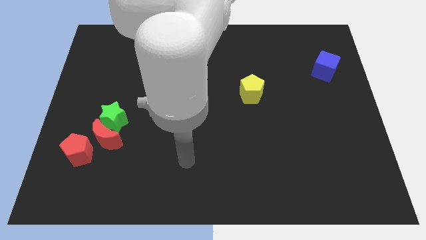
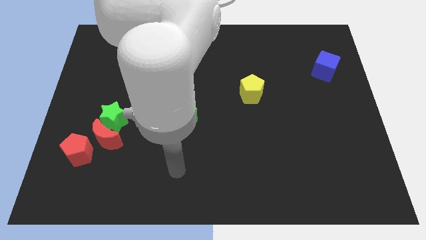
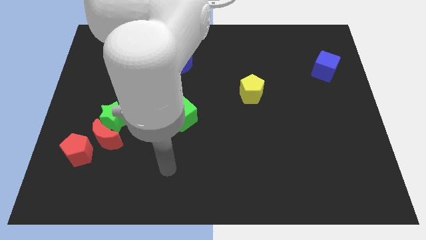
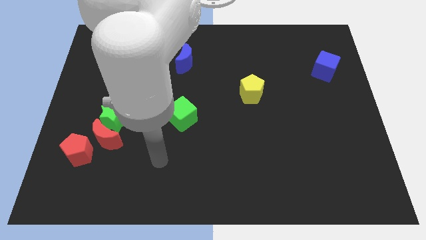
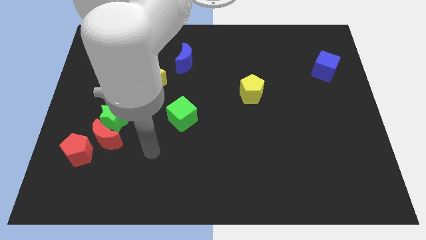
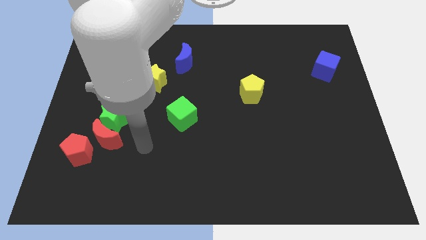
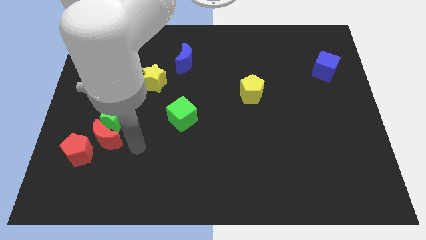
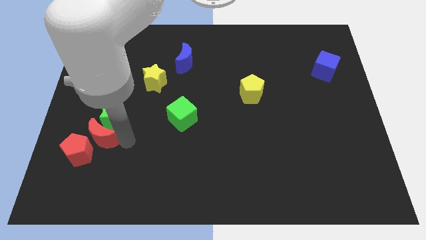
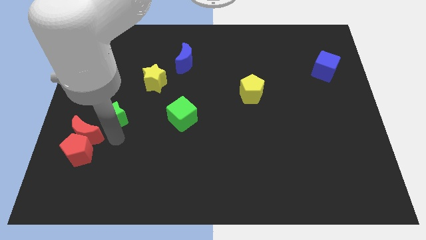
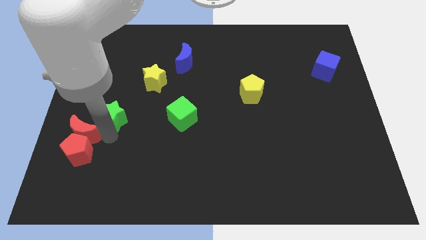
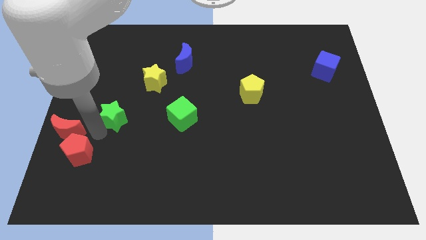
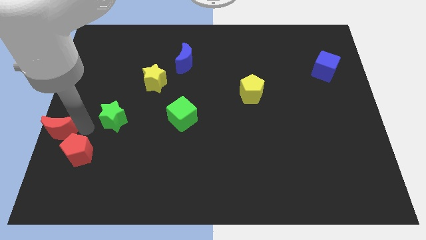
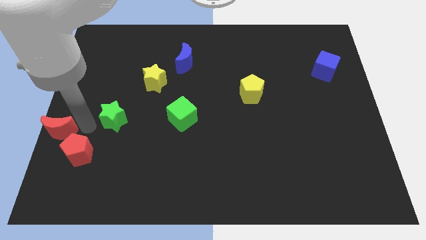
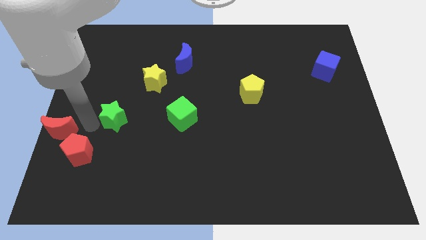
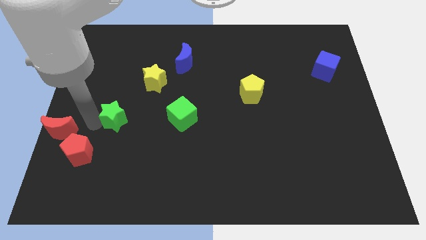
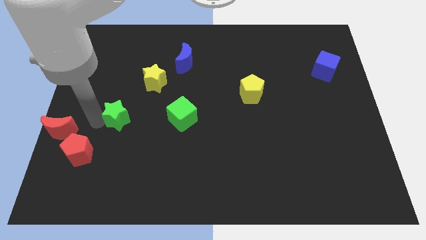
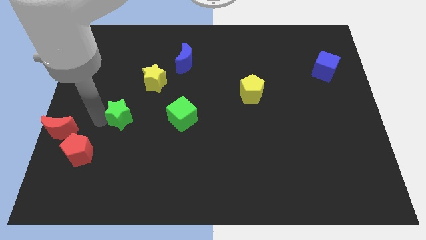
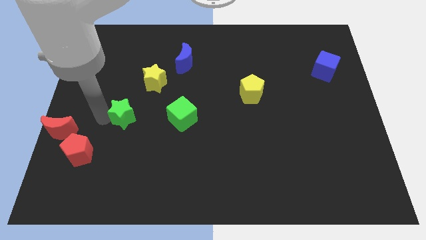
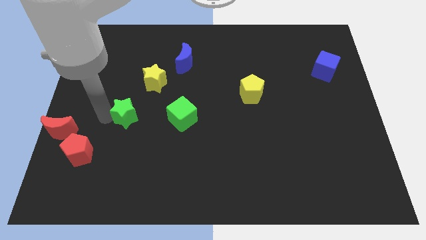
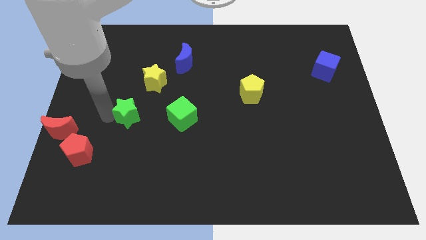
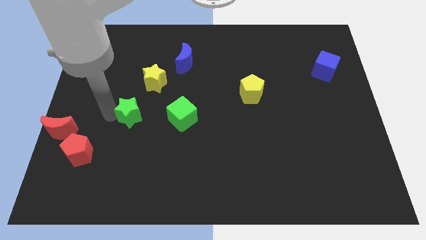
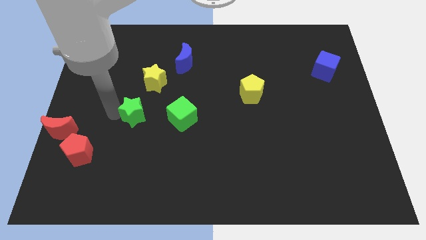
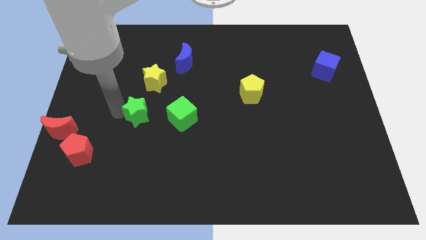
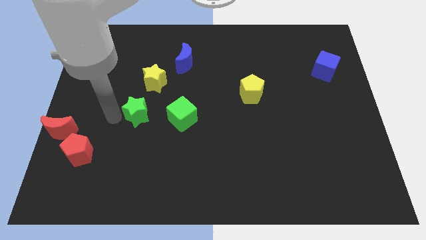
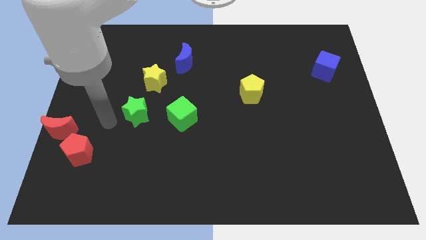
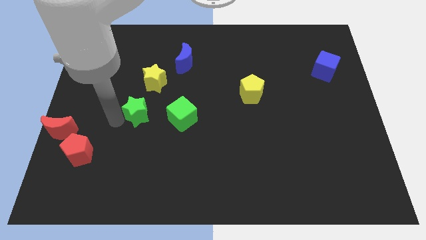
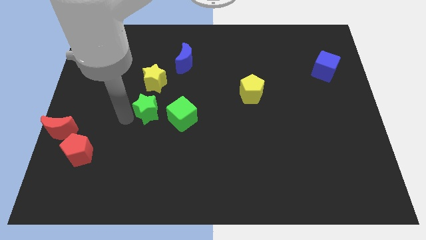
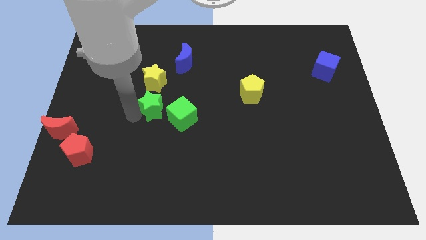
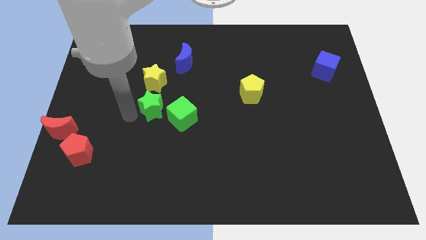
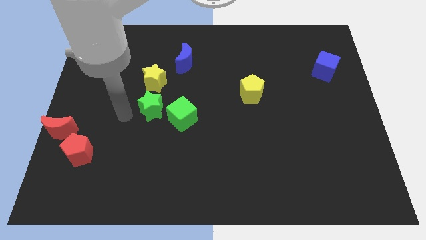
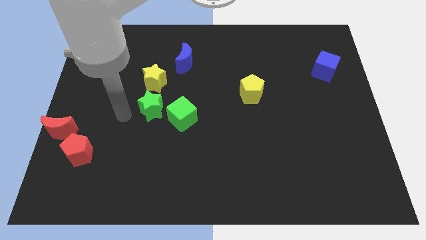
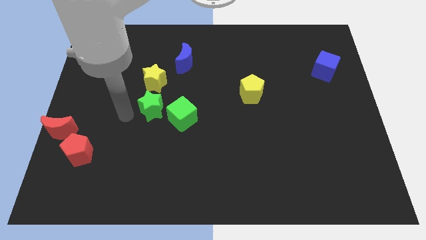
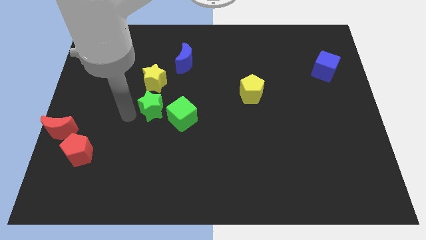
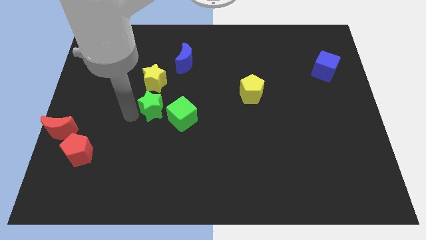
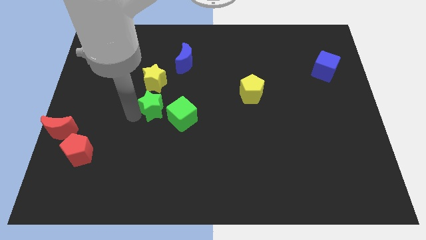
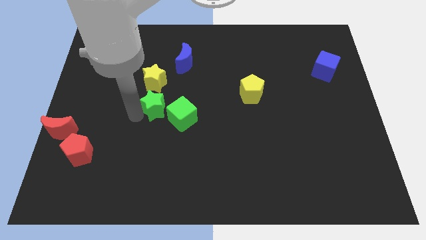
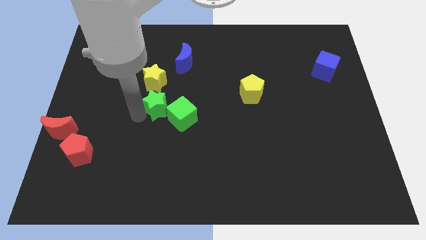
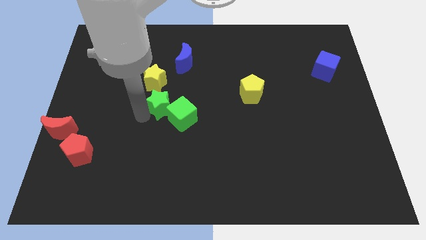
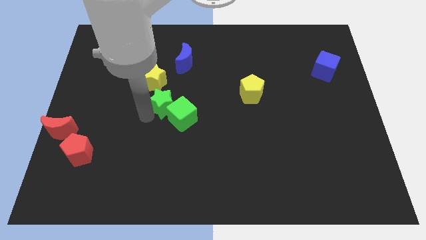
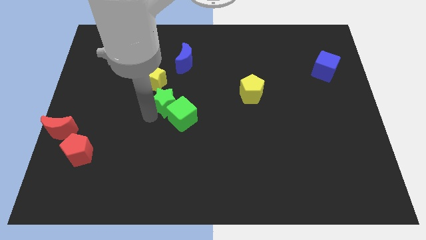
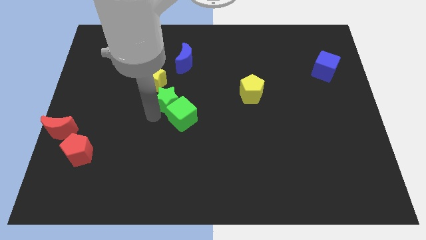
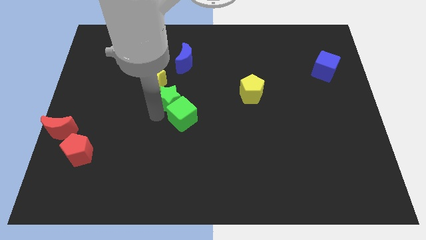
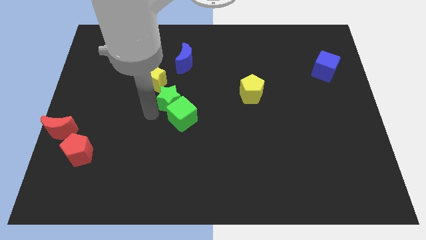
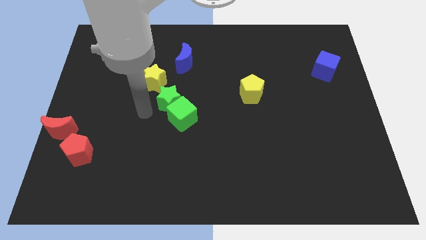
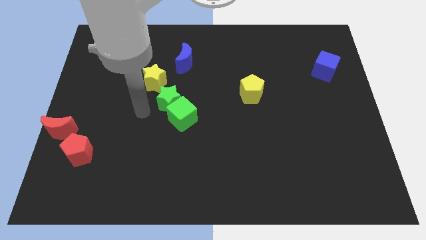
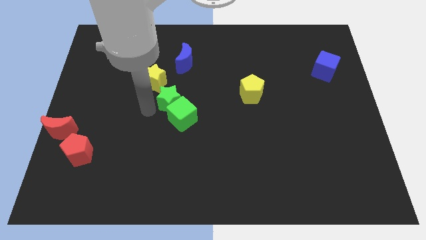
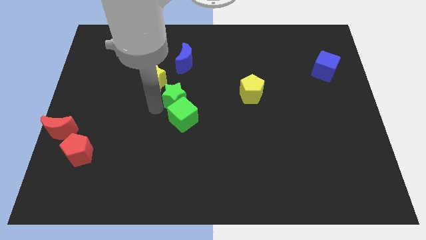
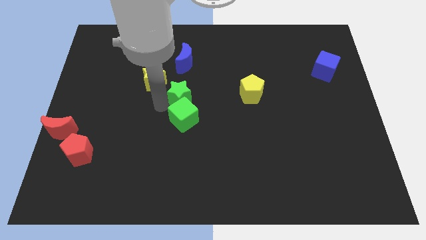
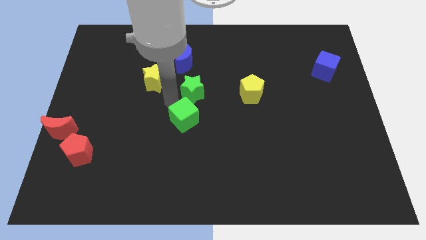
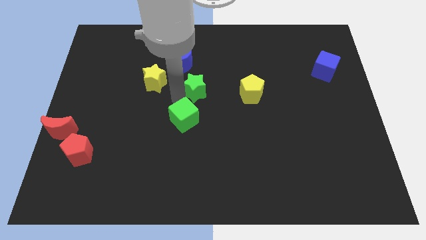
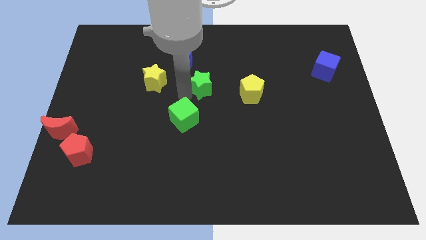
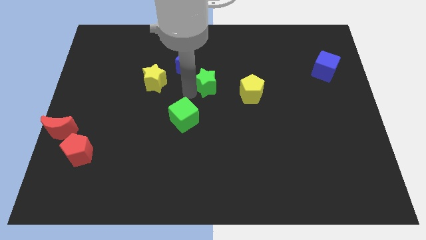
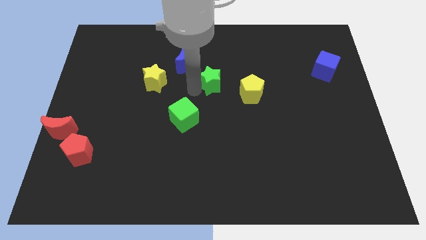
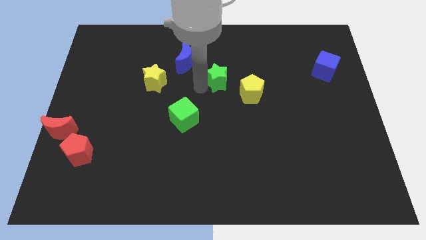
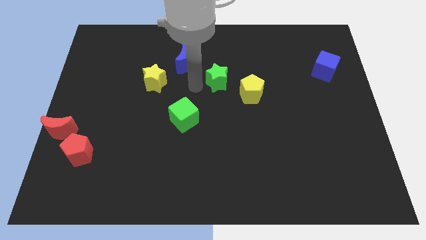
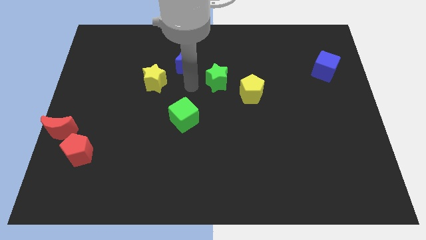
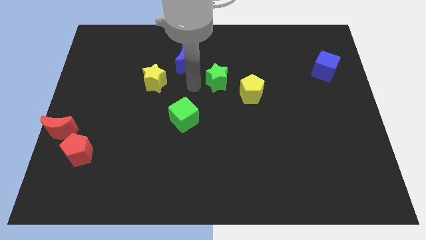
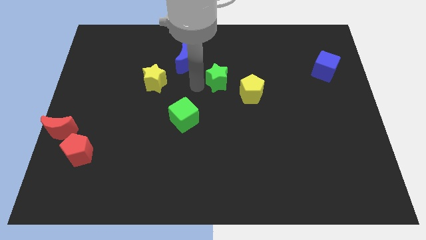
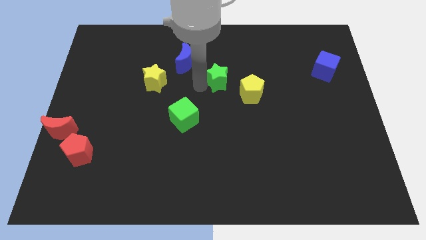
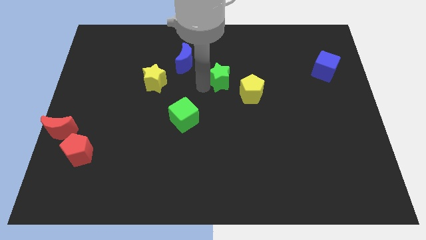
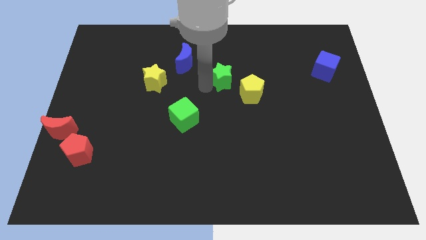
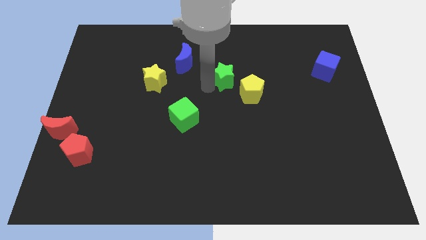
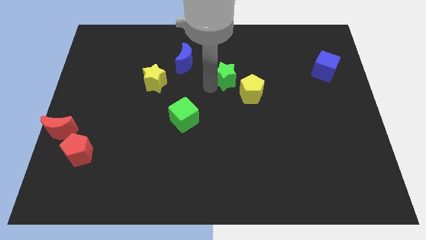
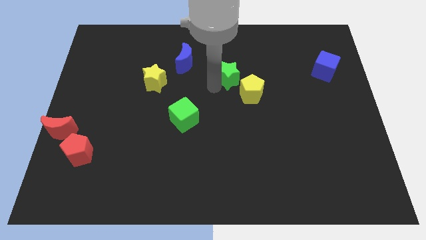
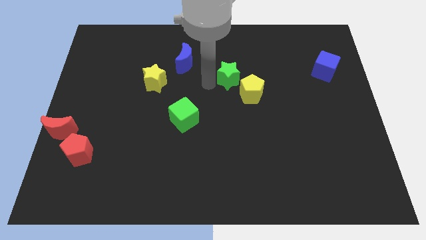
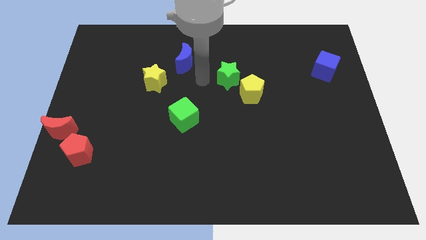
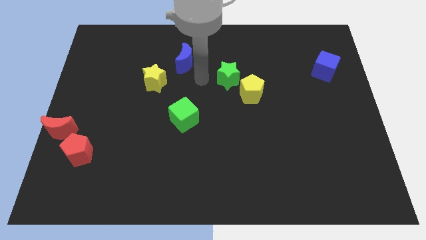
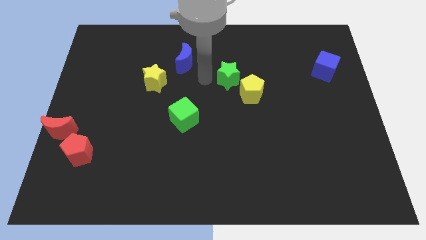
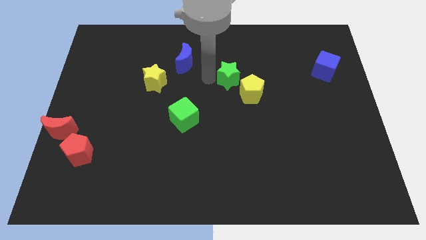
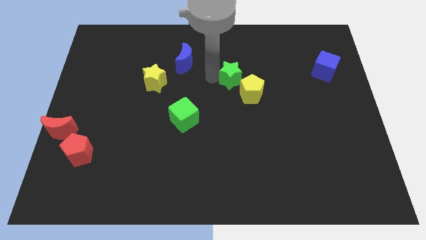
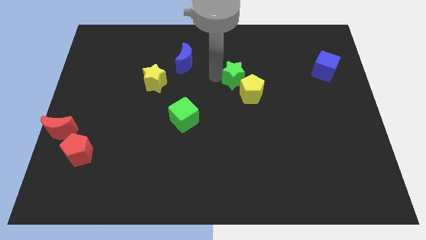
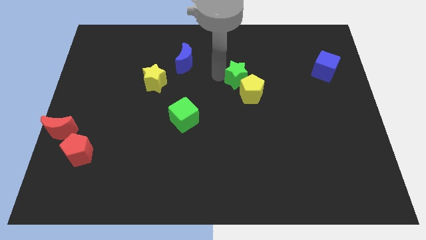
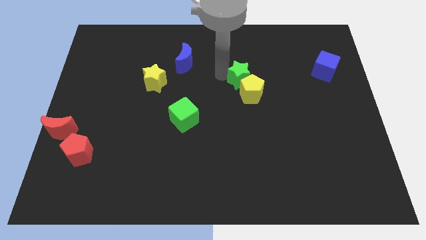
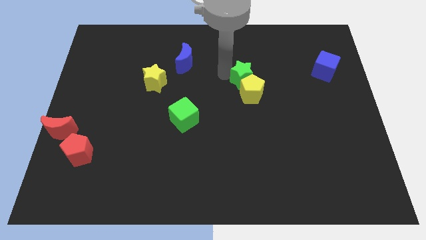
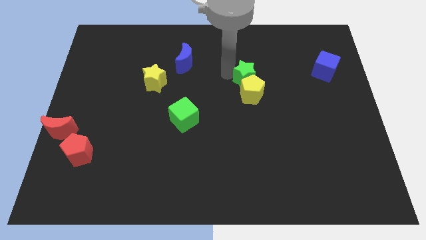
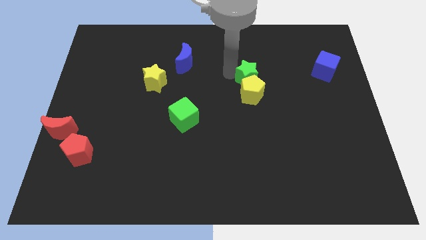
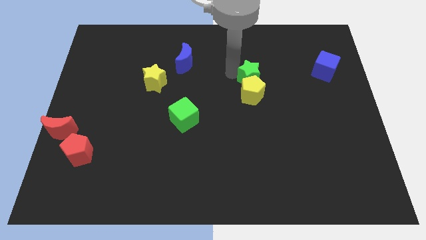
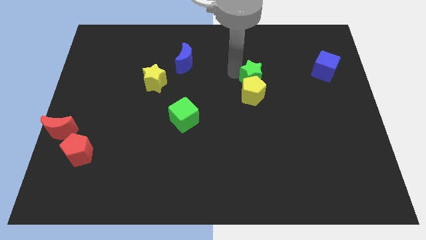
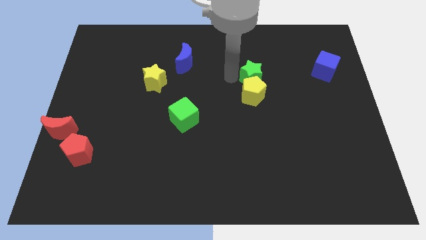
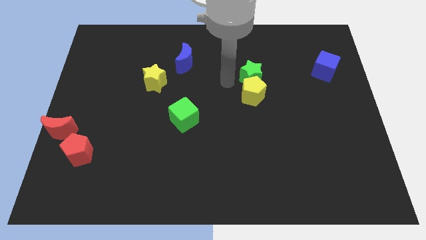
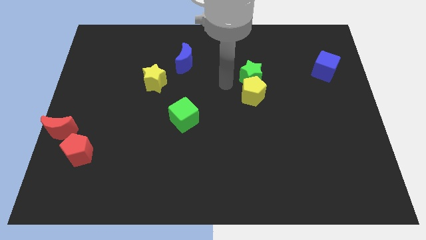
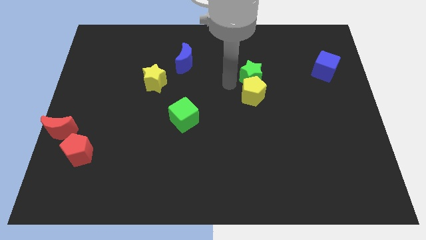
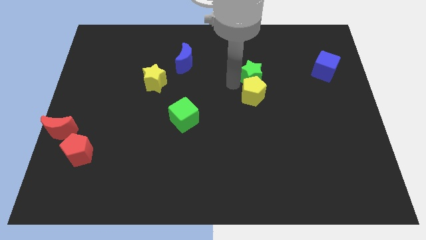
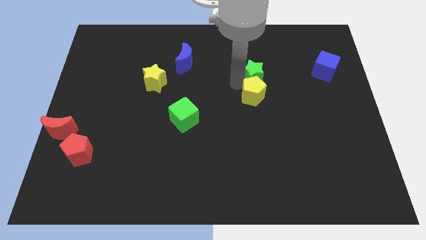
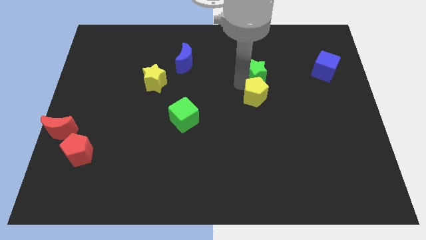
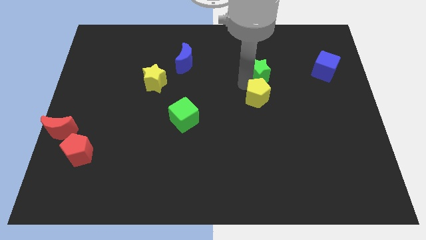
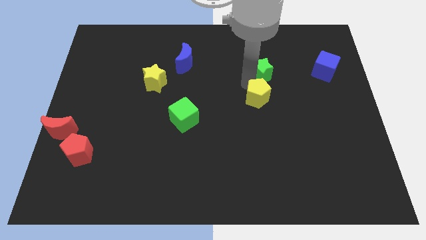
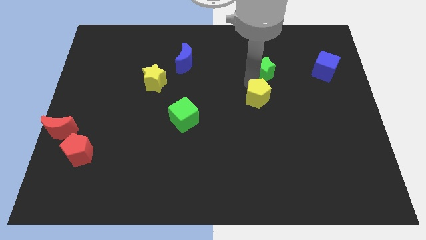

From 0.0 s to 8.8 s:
put the green star just left of the blue cube
